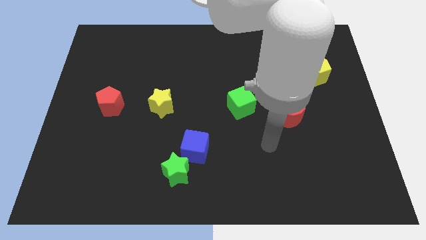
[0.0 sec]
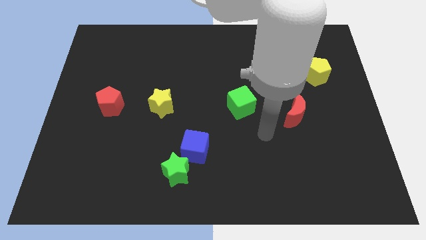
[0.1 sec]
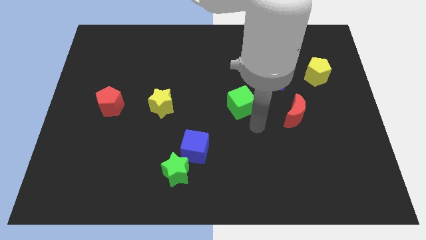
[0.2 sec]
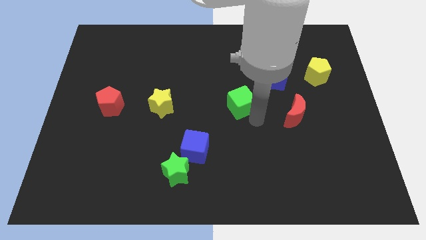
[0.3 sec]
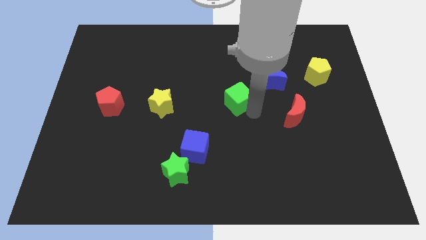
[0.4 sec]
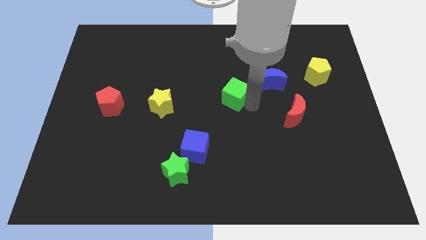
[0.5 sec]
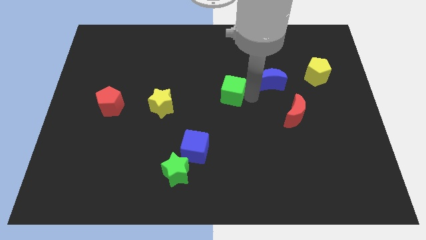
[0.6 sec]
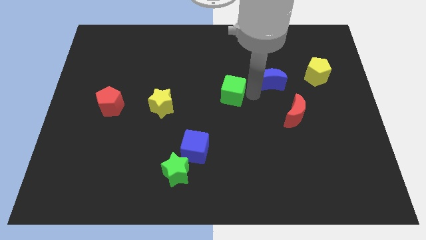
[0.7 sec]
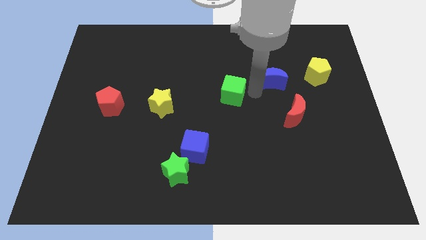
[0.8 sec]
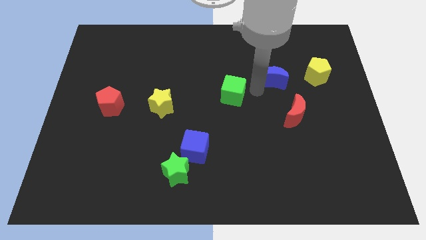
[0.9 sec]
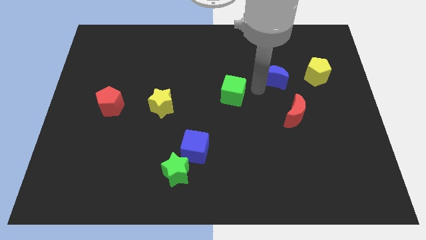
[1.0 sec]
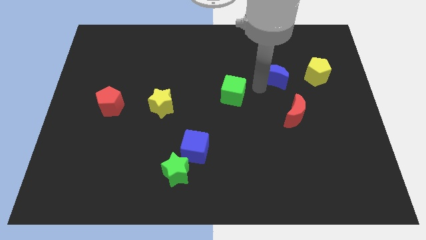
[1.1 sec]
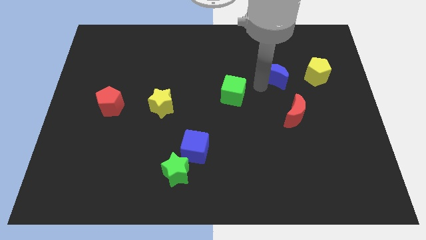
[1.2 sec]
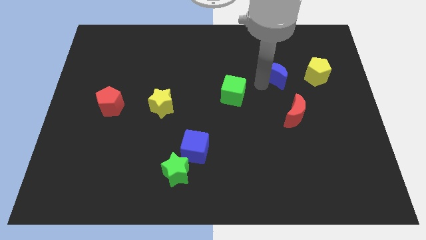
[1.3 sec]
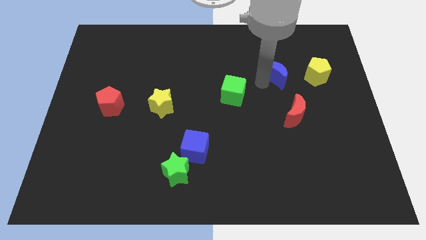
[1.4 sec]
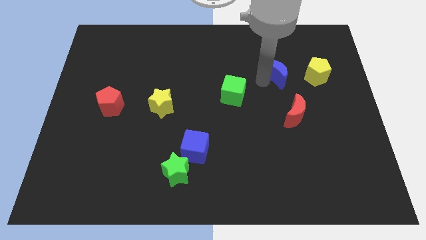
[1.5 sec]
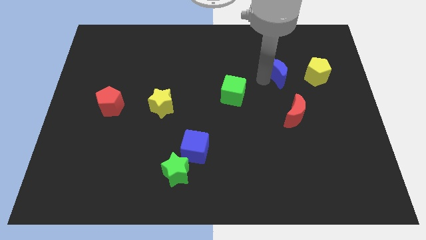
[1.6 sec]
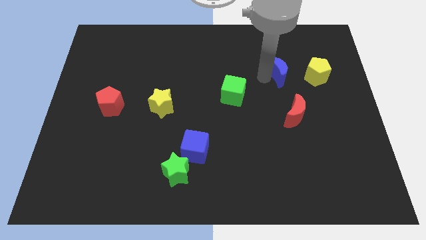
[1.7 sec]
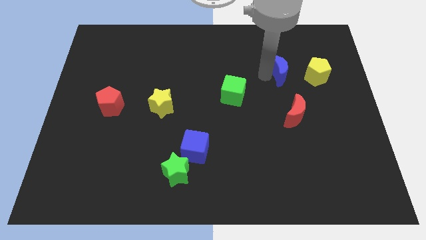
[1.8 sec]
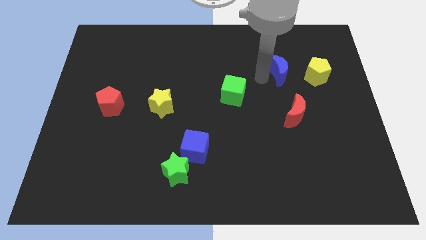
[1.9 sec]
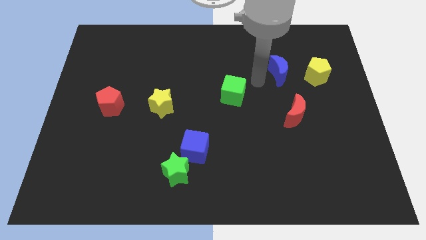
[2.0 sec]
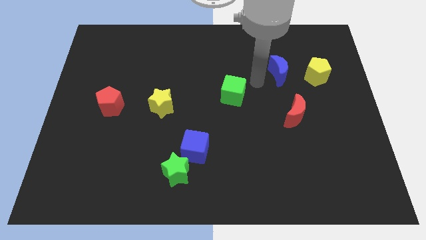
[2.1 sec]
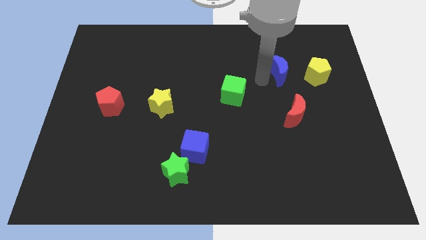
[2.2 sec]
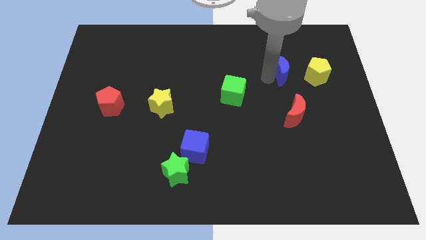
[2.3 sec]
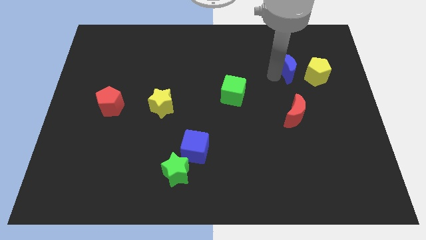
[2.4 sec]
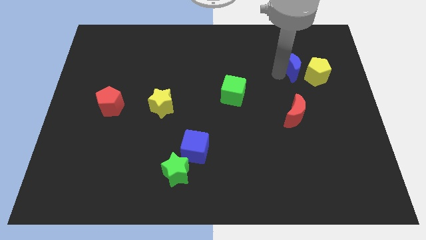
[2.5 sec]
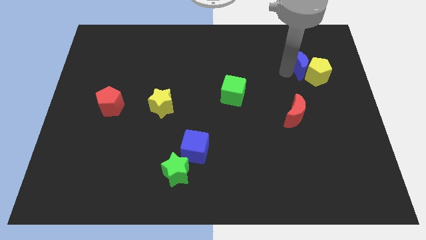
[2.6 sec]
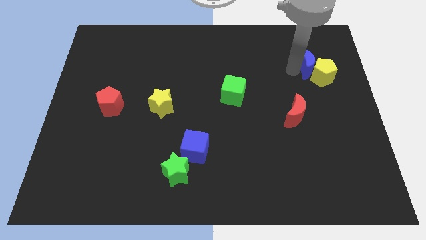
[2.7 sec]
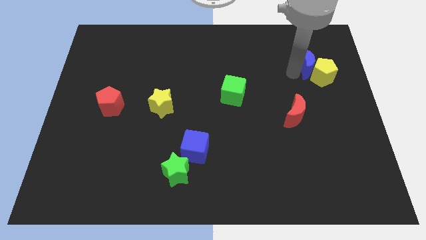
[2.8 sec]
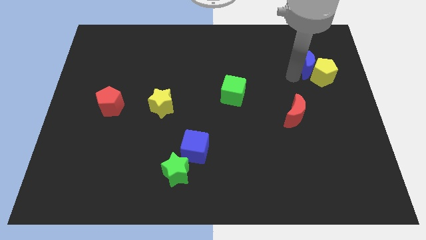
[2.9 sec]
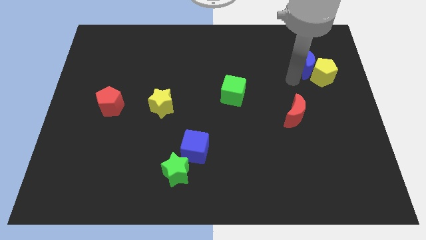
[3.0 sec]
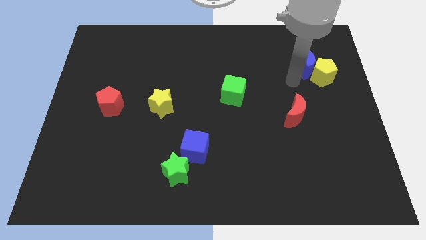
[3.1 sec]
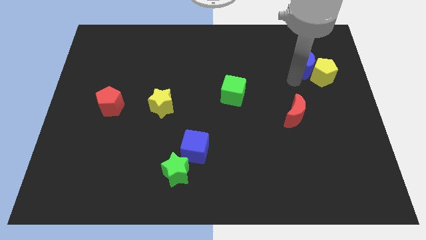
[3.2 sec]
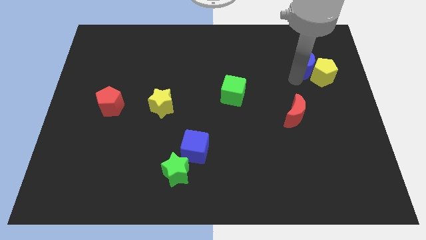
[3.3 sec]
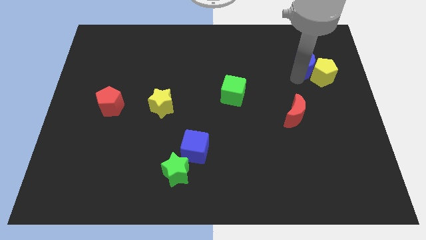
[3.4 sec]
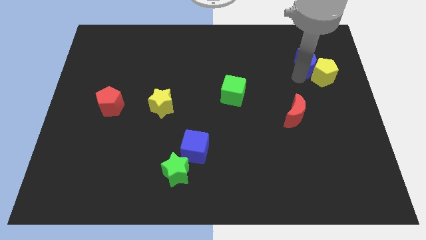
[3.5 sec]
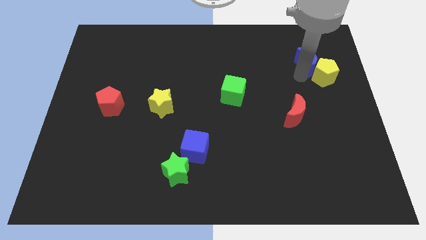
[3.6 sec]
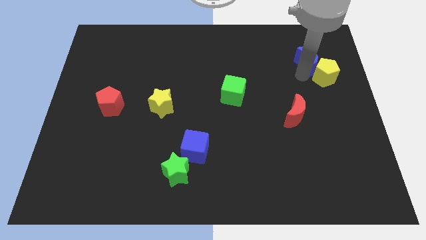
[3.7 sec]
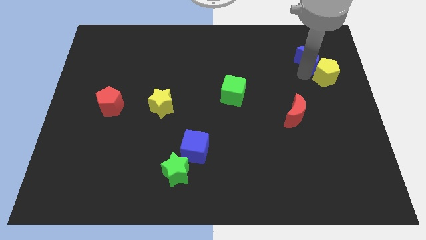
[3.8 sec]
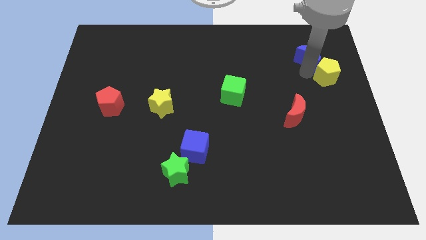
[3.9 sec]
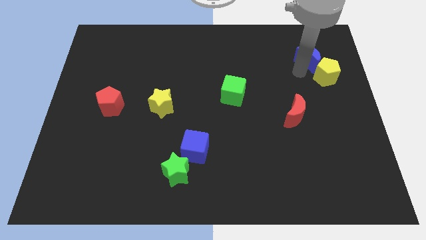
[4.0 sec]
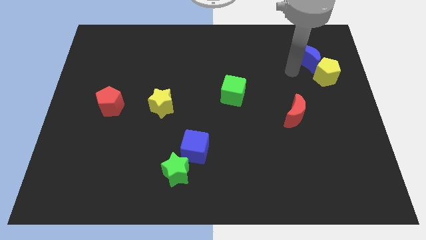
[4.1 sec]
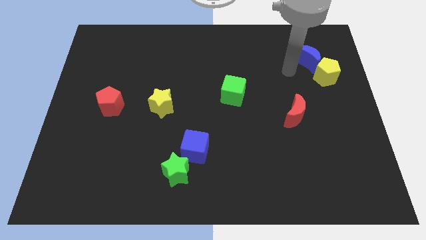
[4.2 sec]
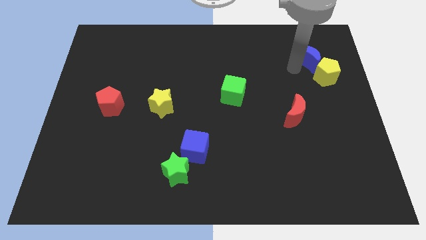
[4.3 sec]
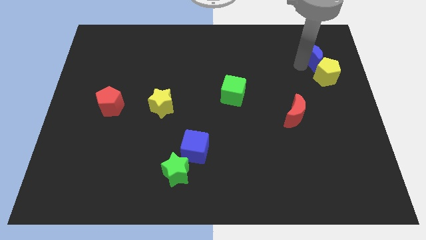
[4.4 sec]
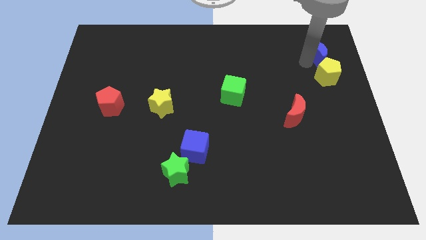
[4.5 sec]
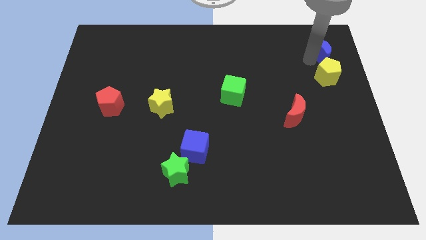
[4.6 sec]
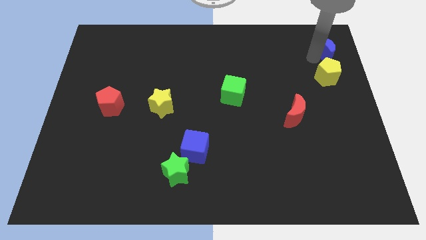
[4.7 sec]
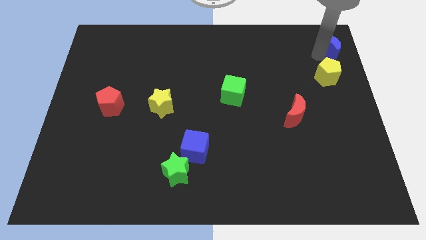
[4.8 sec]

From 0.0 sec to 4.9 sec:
put the blue moon to the upper right corner

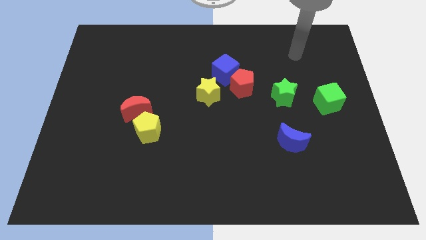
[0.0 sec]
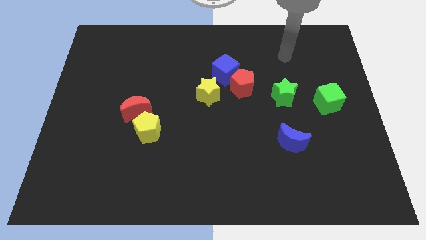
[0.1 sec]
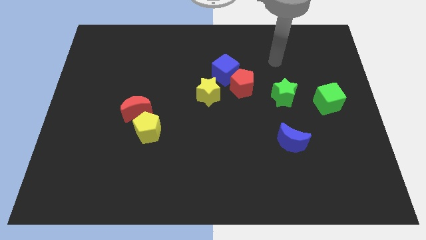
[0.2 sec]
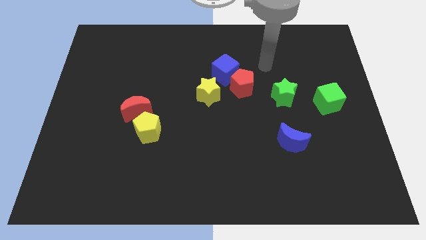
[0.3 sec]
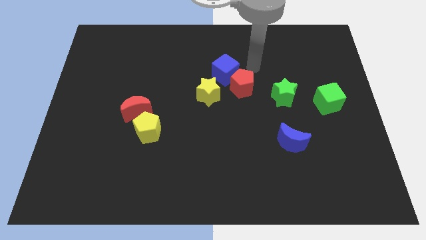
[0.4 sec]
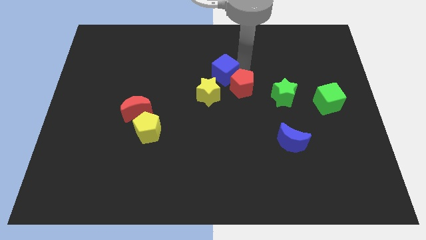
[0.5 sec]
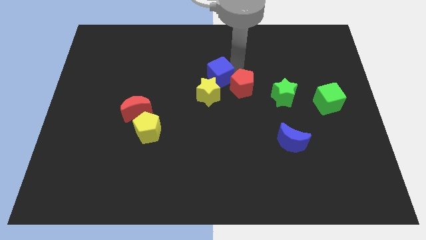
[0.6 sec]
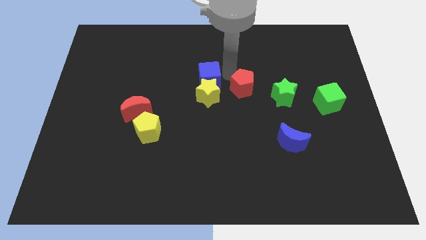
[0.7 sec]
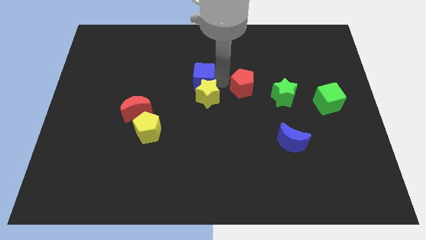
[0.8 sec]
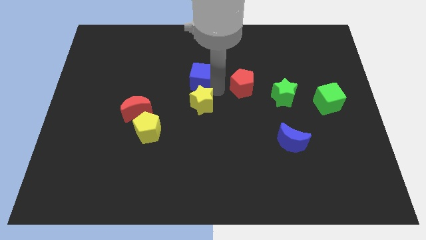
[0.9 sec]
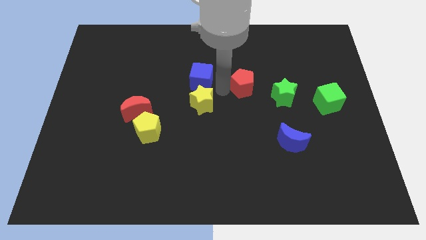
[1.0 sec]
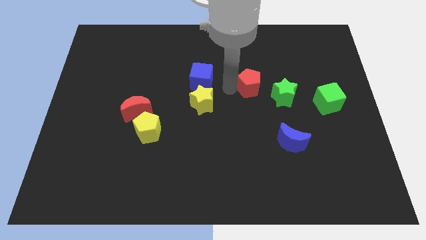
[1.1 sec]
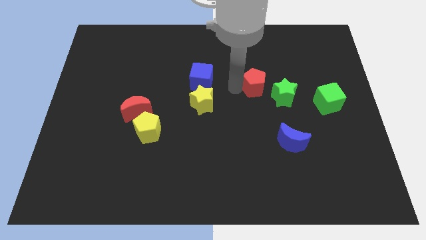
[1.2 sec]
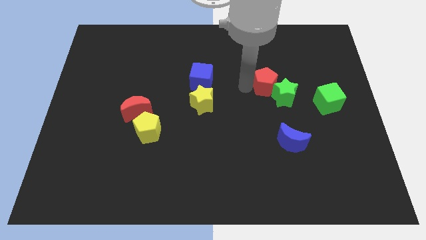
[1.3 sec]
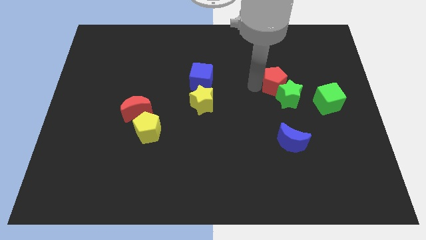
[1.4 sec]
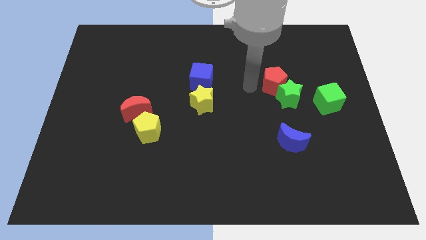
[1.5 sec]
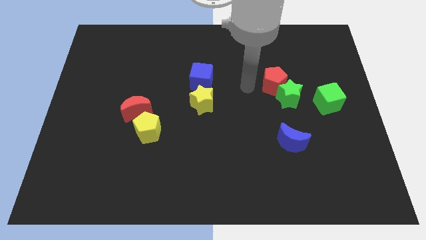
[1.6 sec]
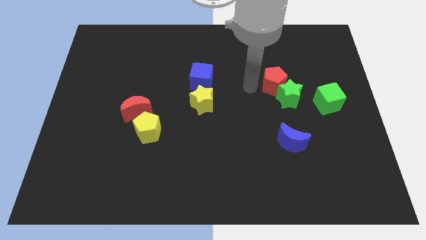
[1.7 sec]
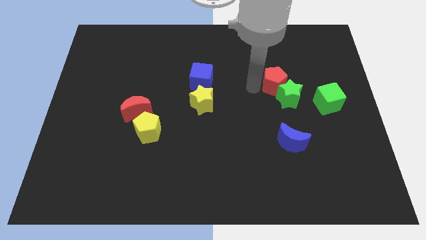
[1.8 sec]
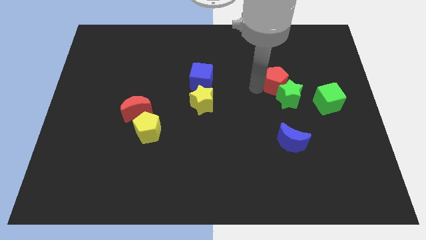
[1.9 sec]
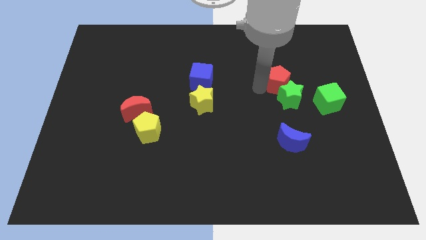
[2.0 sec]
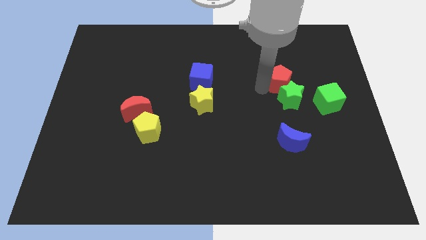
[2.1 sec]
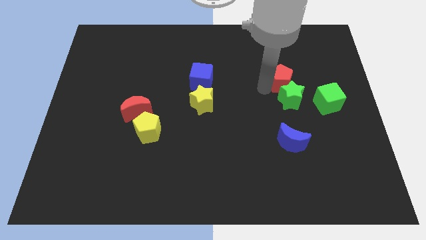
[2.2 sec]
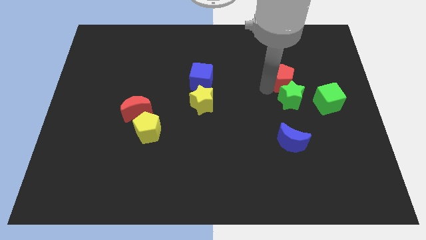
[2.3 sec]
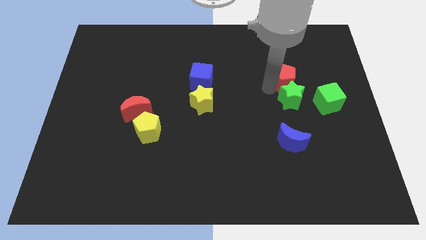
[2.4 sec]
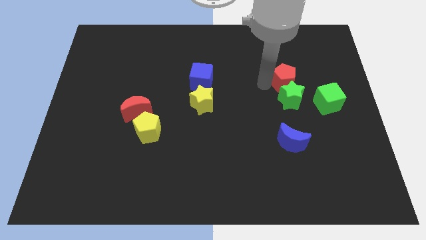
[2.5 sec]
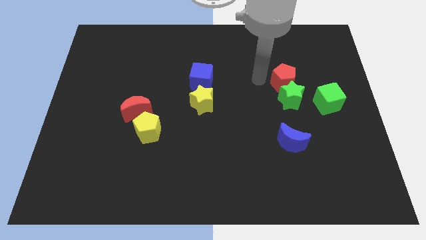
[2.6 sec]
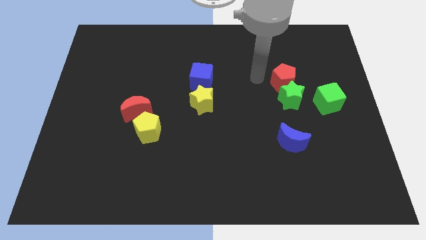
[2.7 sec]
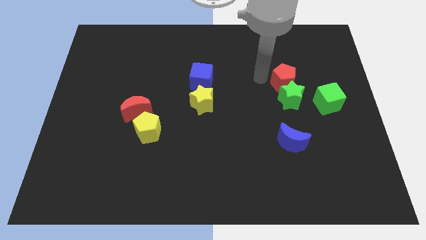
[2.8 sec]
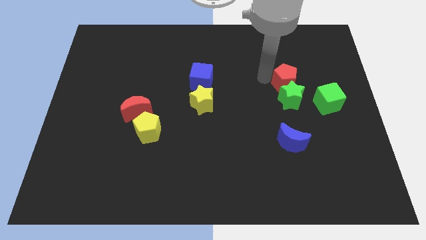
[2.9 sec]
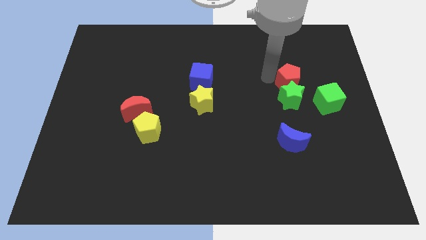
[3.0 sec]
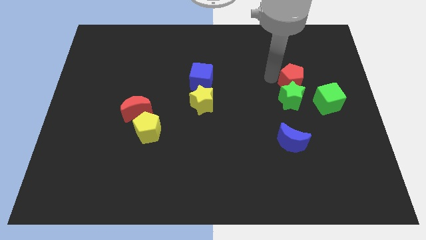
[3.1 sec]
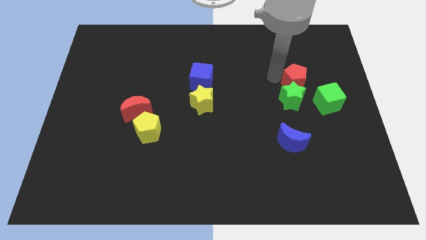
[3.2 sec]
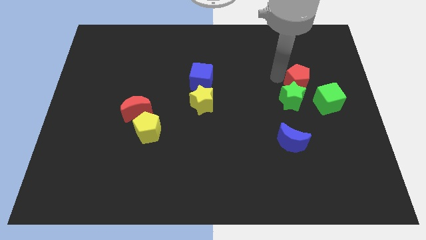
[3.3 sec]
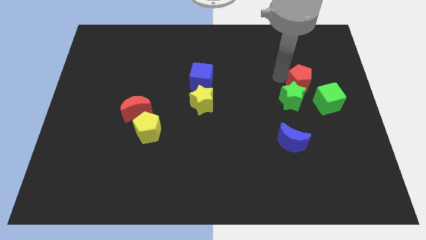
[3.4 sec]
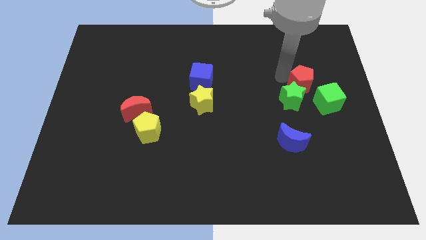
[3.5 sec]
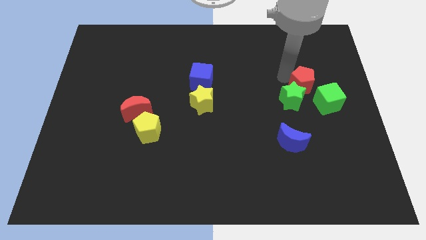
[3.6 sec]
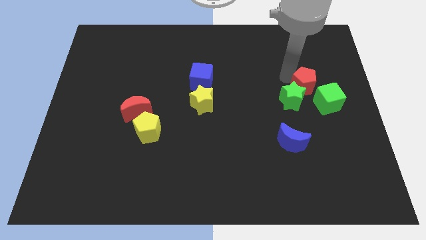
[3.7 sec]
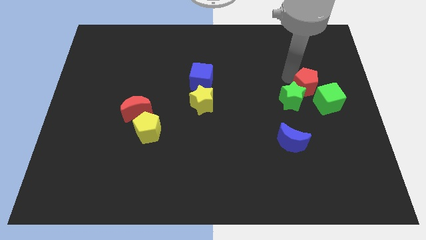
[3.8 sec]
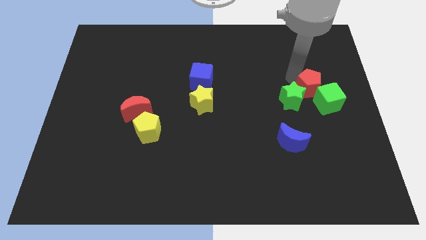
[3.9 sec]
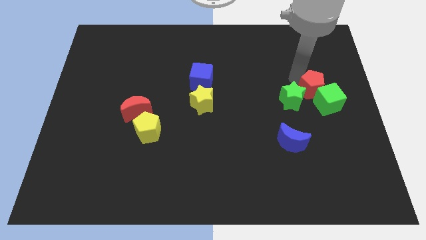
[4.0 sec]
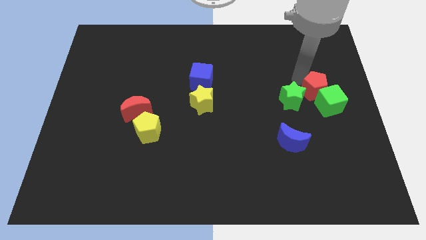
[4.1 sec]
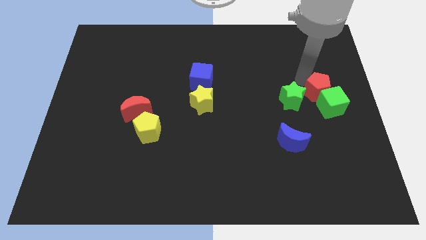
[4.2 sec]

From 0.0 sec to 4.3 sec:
push the red pentagon to the right side
